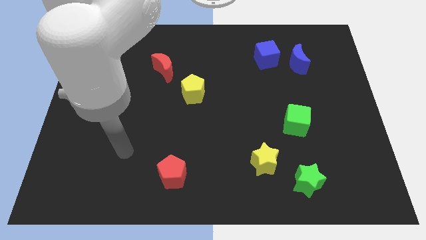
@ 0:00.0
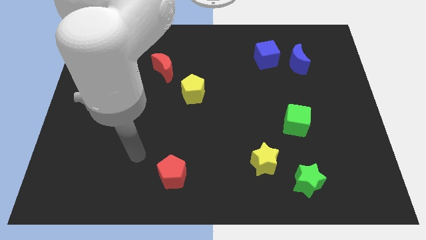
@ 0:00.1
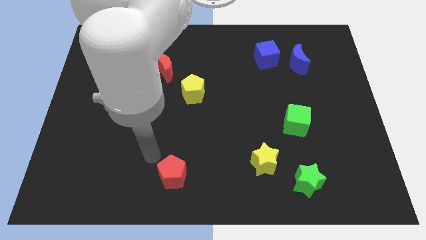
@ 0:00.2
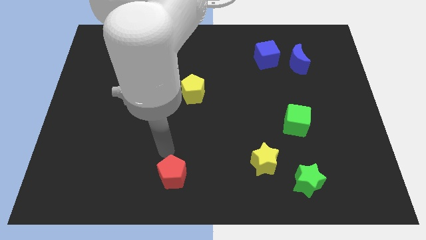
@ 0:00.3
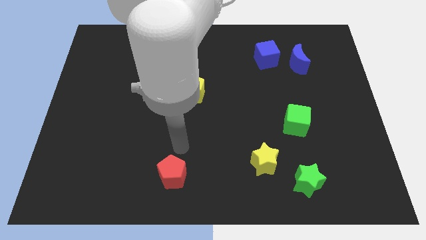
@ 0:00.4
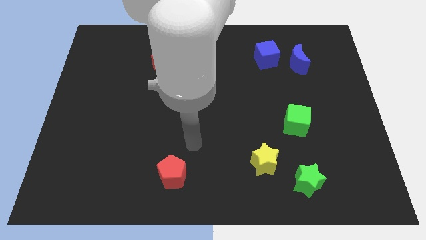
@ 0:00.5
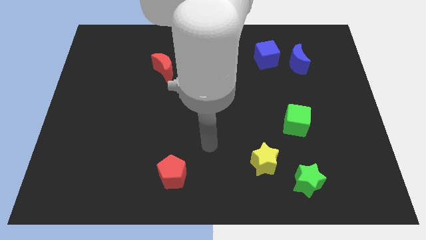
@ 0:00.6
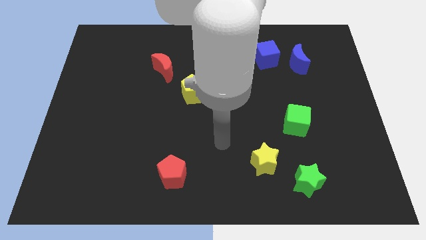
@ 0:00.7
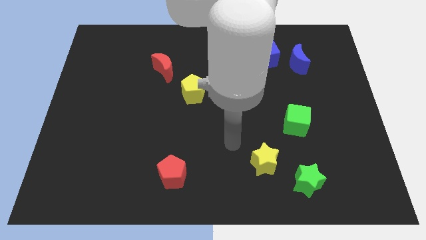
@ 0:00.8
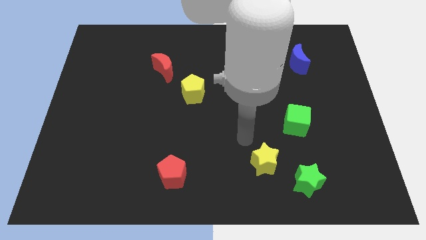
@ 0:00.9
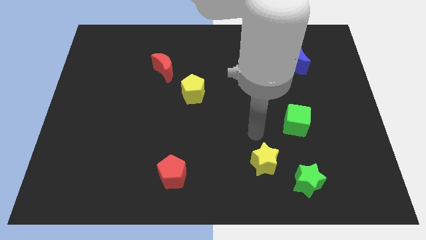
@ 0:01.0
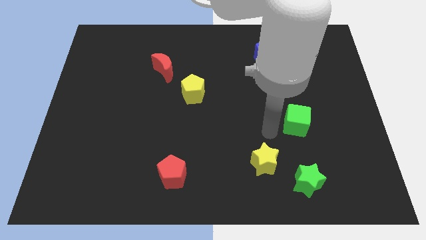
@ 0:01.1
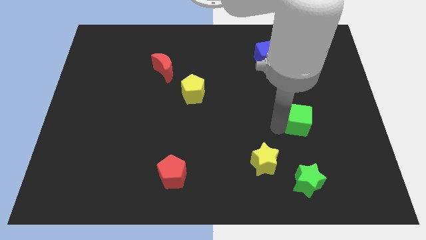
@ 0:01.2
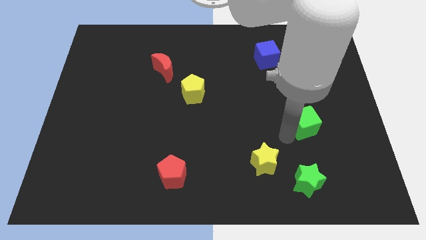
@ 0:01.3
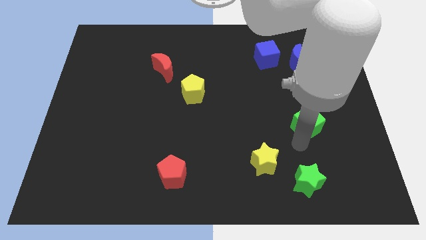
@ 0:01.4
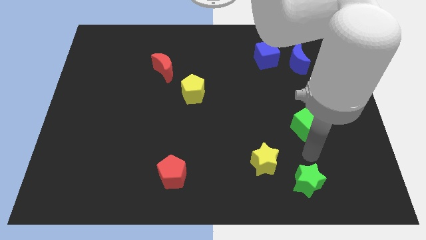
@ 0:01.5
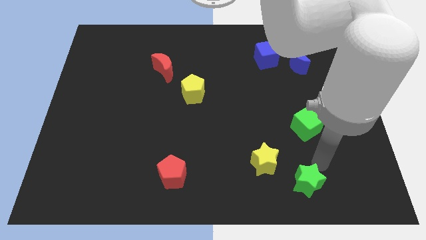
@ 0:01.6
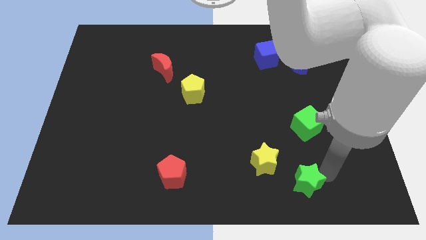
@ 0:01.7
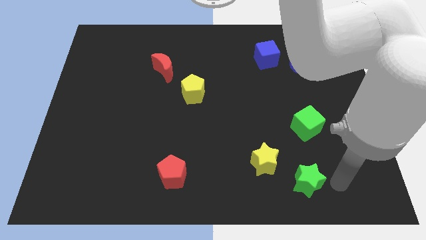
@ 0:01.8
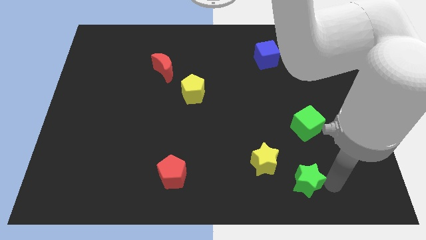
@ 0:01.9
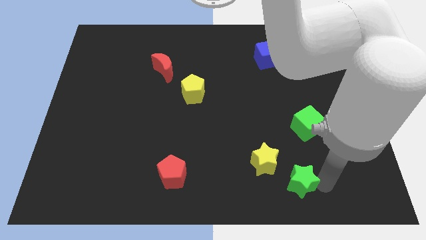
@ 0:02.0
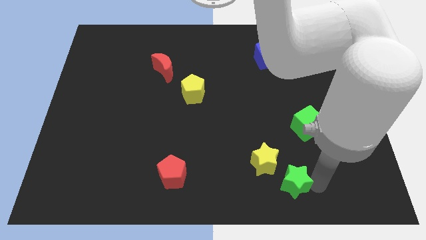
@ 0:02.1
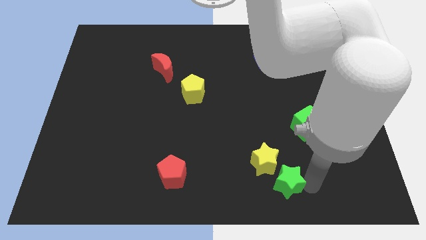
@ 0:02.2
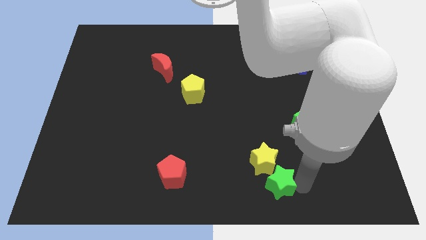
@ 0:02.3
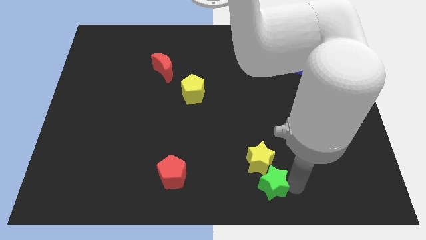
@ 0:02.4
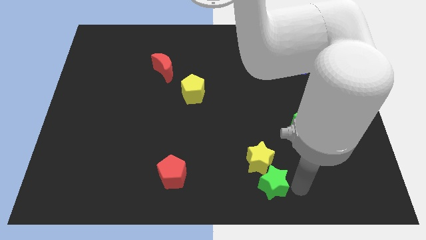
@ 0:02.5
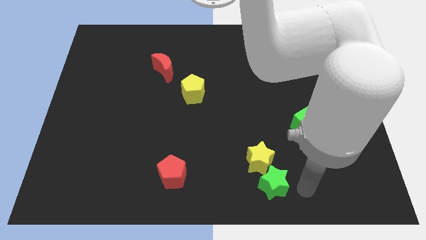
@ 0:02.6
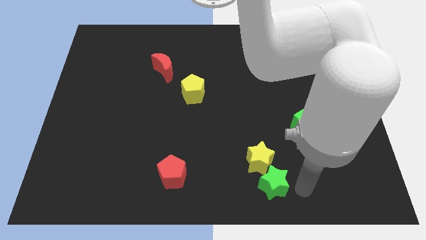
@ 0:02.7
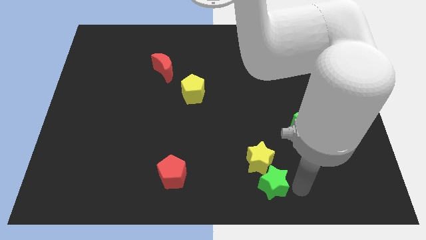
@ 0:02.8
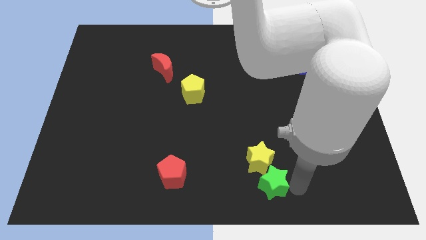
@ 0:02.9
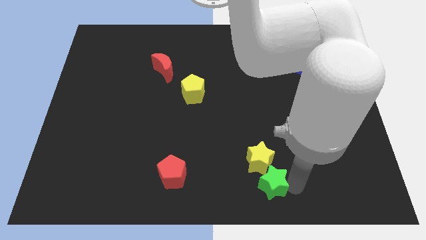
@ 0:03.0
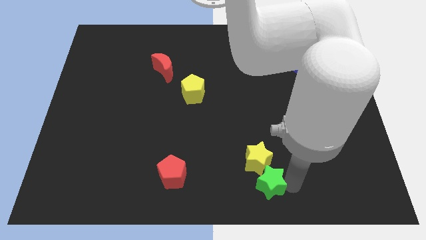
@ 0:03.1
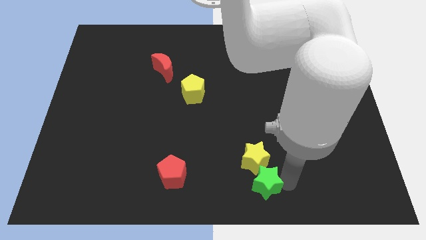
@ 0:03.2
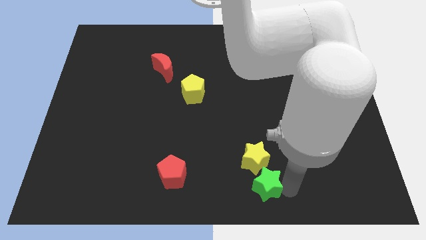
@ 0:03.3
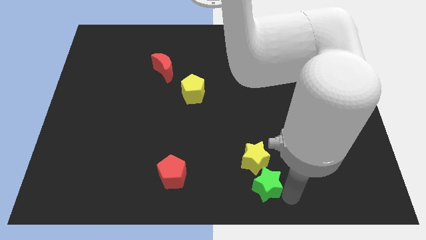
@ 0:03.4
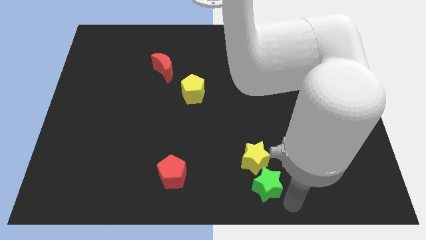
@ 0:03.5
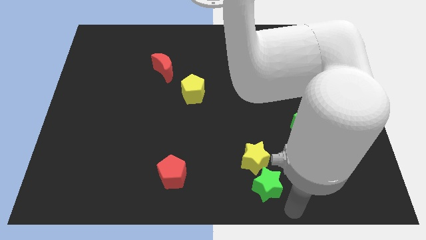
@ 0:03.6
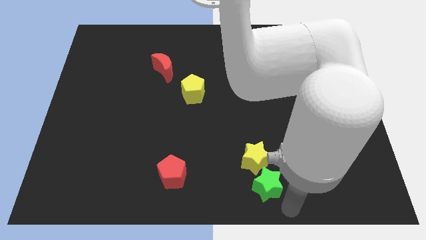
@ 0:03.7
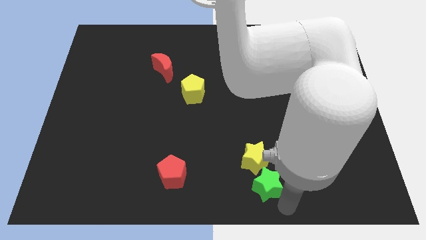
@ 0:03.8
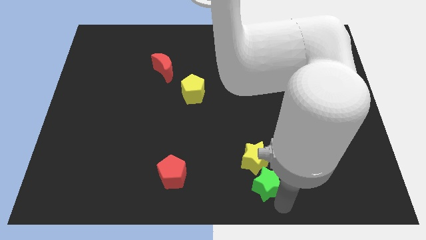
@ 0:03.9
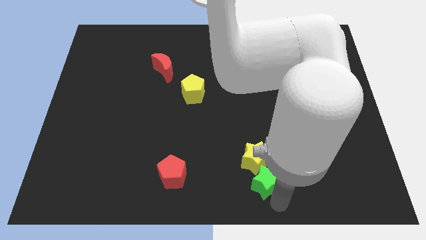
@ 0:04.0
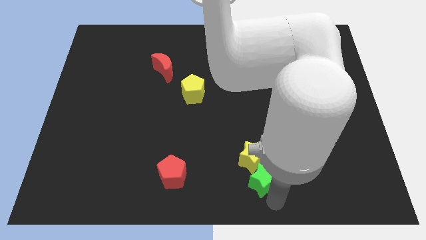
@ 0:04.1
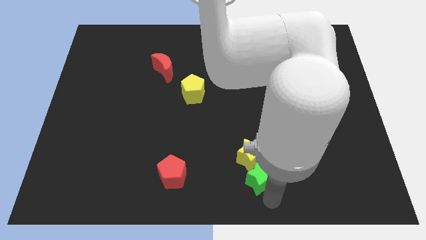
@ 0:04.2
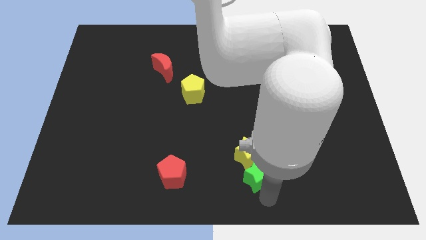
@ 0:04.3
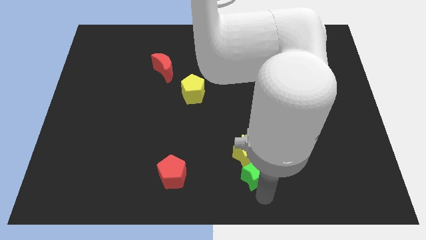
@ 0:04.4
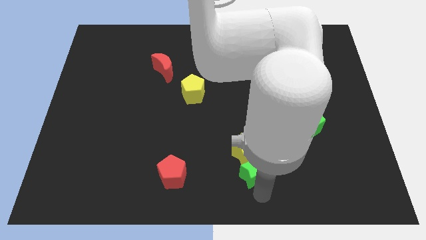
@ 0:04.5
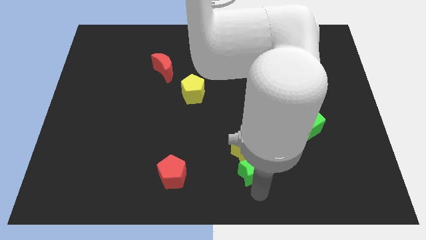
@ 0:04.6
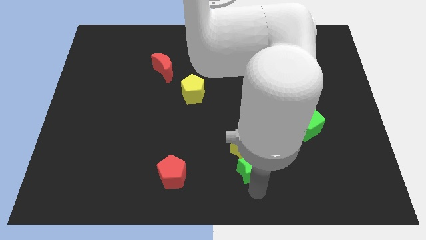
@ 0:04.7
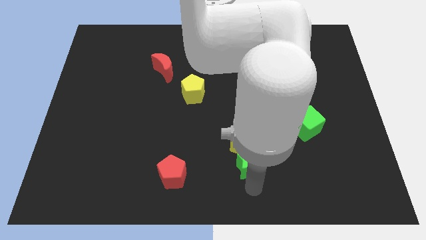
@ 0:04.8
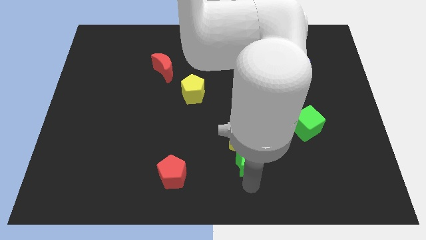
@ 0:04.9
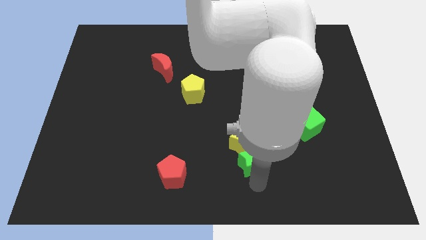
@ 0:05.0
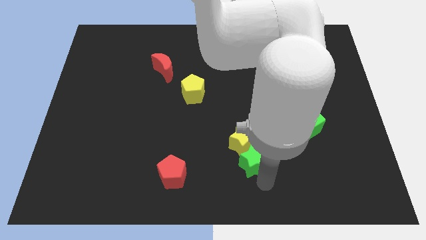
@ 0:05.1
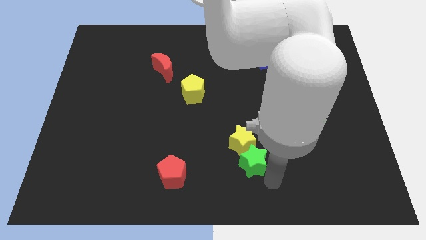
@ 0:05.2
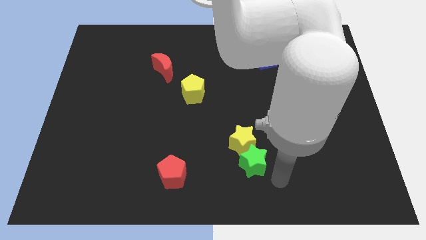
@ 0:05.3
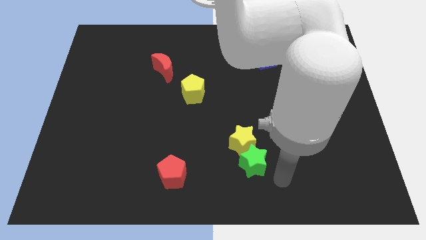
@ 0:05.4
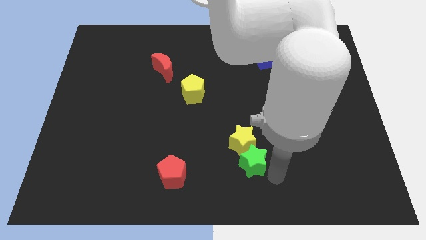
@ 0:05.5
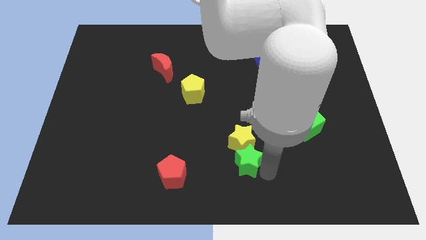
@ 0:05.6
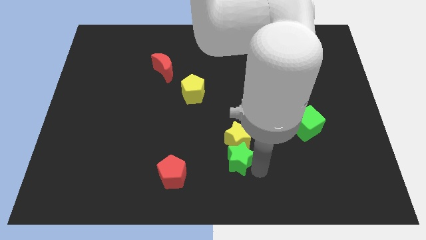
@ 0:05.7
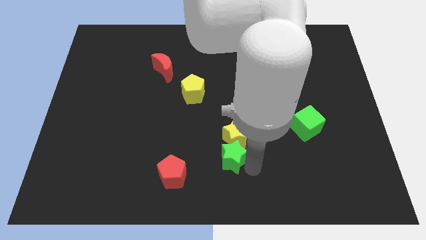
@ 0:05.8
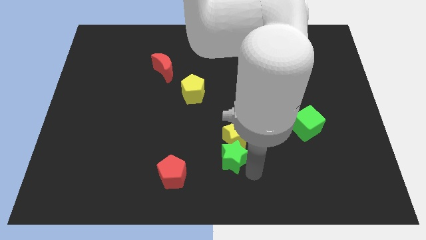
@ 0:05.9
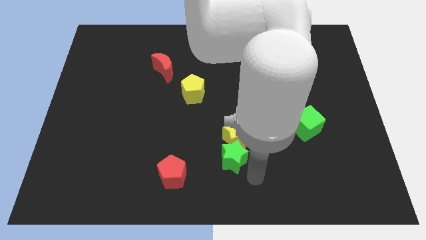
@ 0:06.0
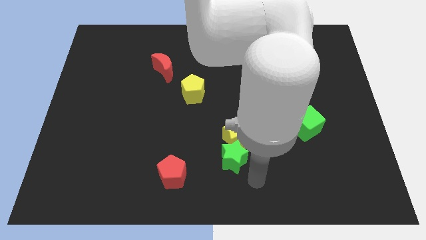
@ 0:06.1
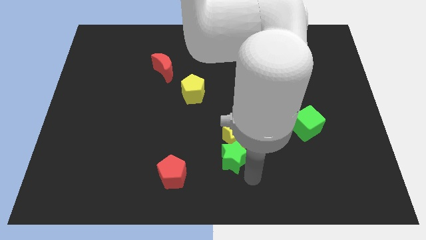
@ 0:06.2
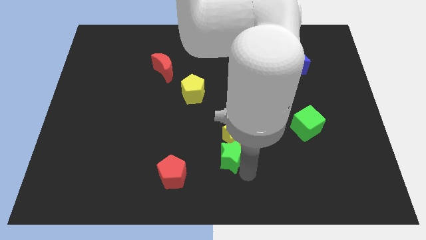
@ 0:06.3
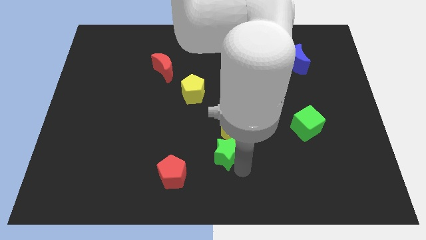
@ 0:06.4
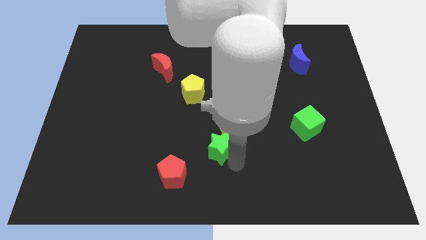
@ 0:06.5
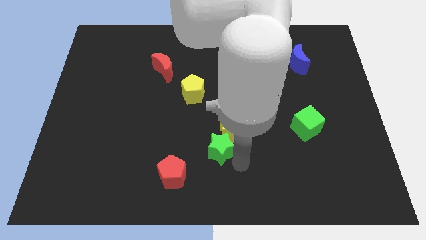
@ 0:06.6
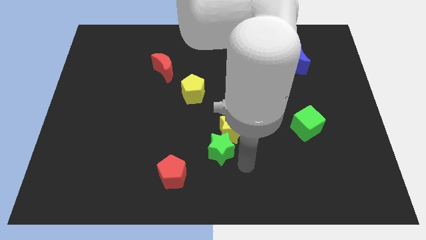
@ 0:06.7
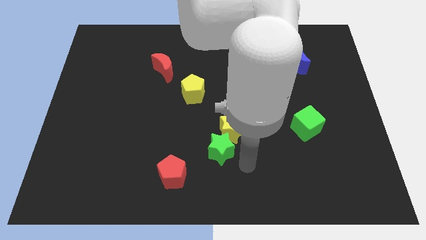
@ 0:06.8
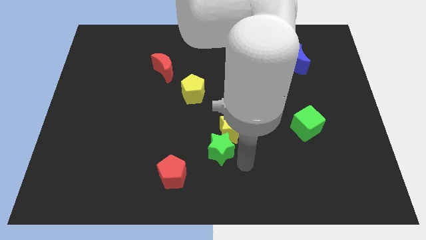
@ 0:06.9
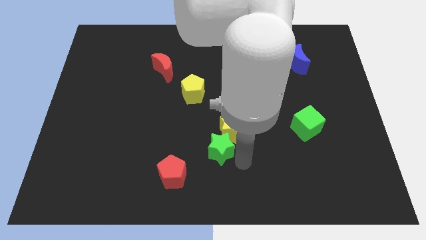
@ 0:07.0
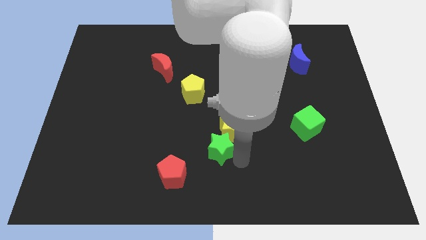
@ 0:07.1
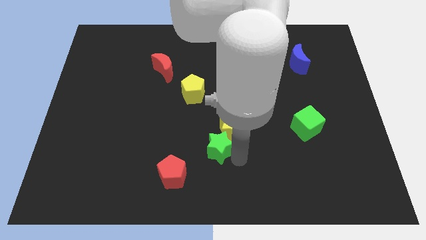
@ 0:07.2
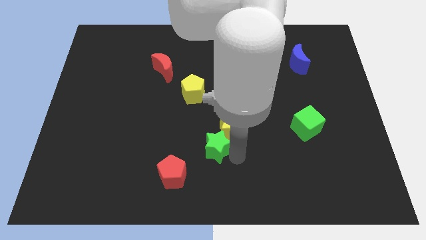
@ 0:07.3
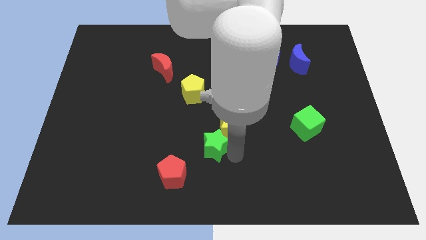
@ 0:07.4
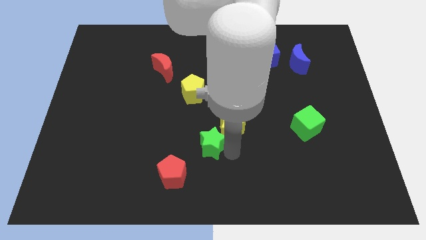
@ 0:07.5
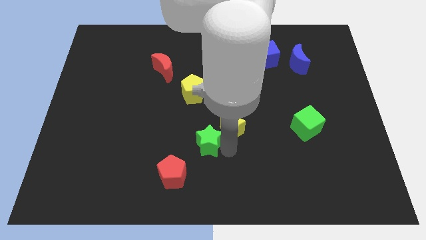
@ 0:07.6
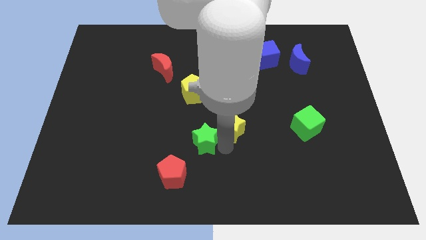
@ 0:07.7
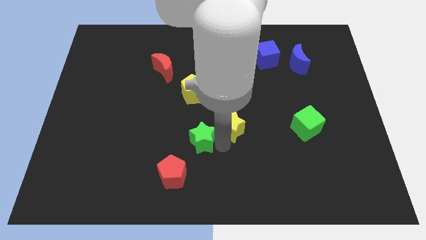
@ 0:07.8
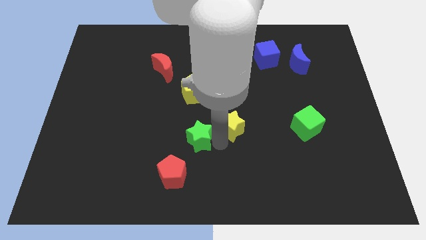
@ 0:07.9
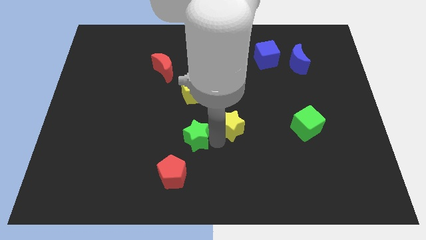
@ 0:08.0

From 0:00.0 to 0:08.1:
push the green star above the red pentagon
